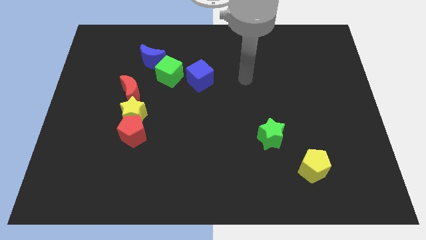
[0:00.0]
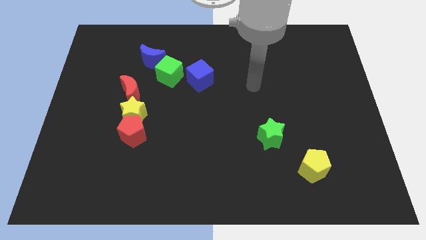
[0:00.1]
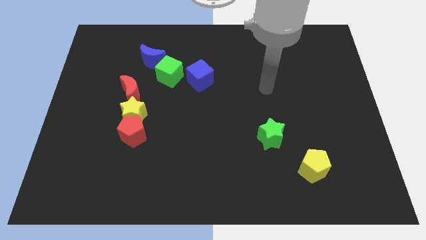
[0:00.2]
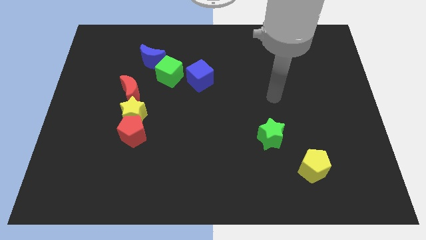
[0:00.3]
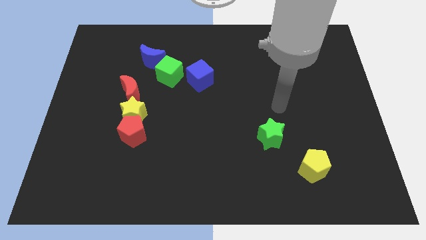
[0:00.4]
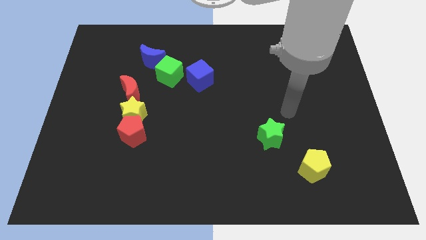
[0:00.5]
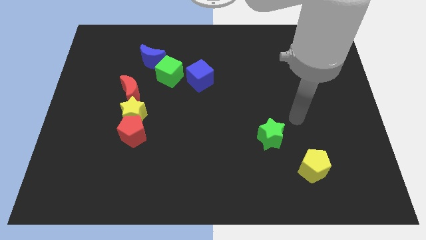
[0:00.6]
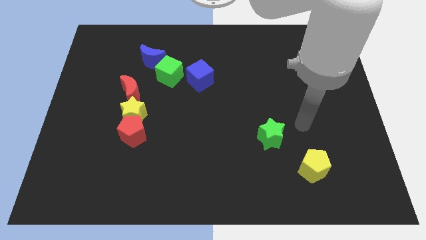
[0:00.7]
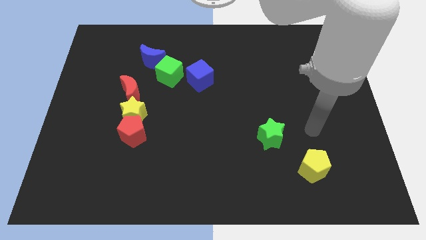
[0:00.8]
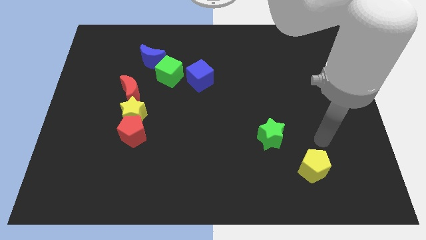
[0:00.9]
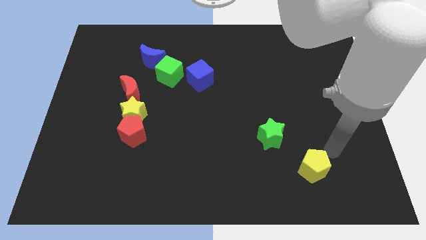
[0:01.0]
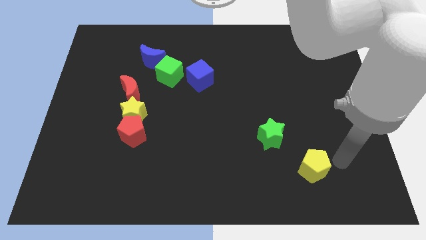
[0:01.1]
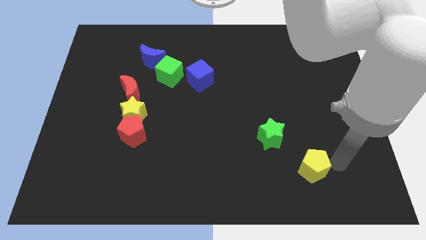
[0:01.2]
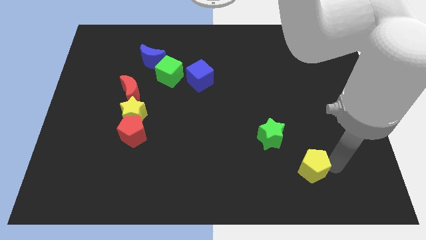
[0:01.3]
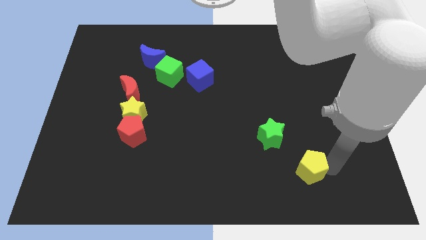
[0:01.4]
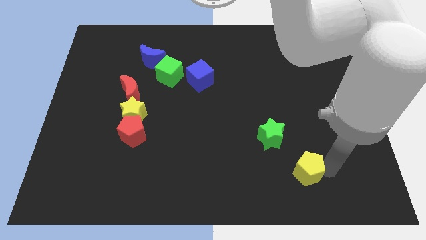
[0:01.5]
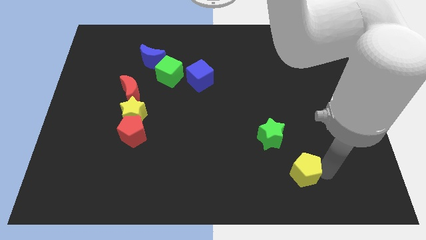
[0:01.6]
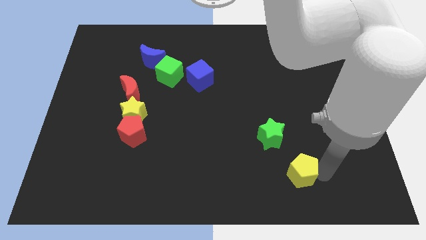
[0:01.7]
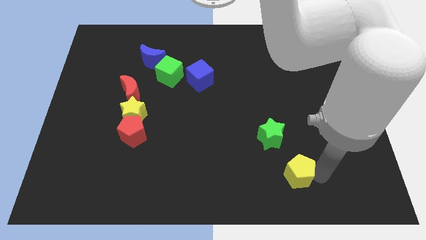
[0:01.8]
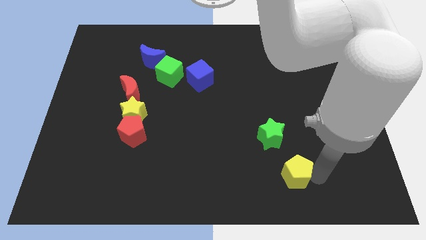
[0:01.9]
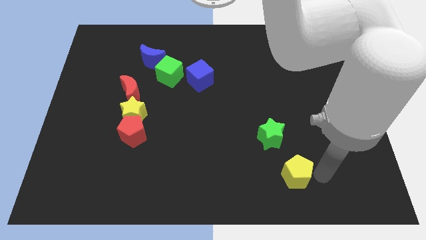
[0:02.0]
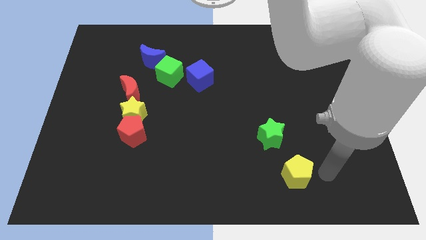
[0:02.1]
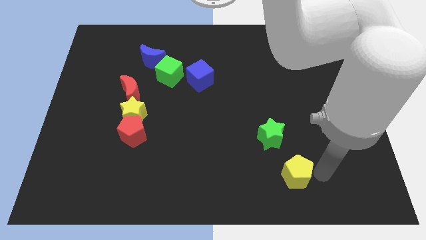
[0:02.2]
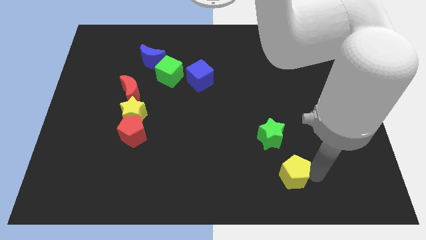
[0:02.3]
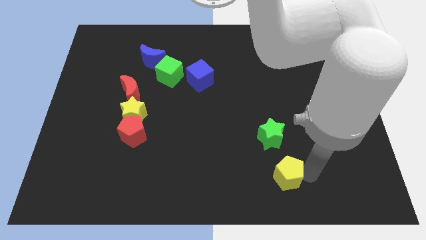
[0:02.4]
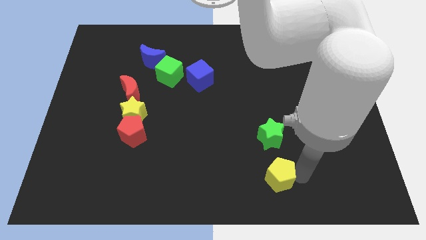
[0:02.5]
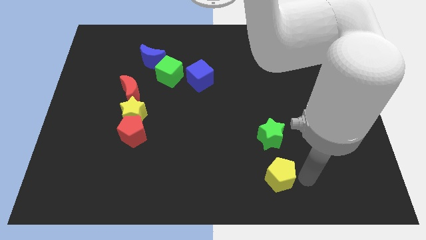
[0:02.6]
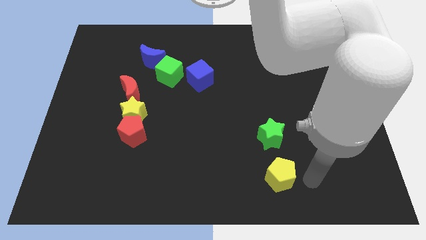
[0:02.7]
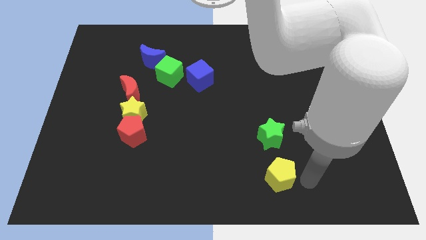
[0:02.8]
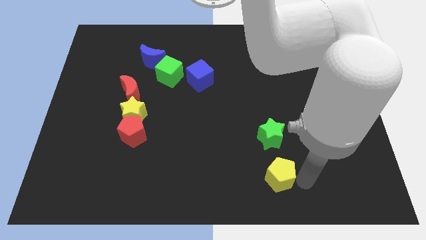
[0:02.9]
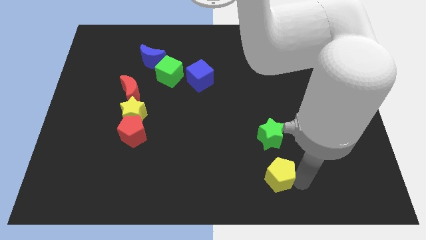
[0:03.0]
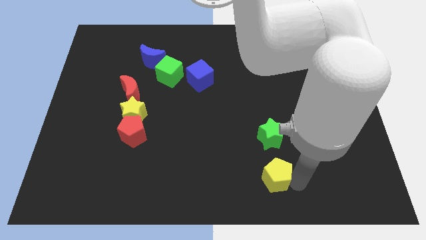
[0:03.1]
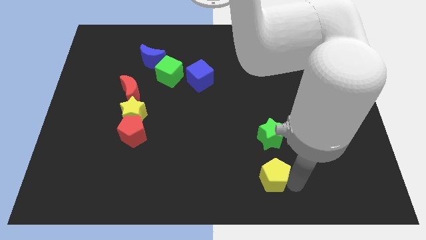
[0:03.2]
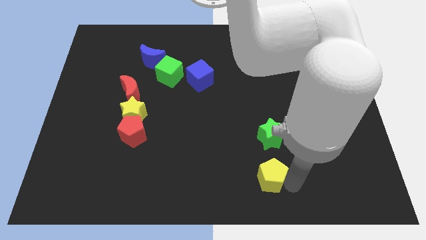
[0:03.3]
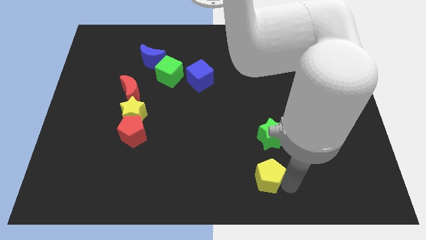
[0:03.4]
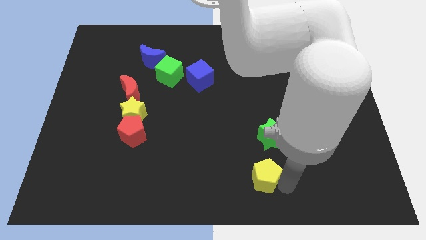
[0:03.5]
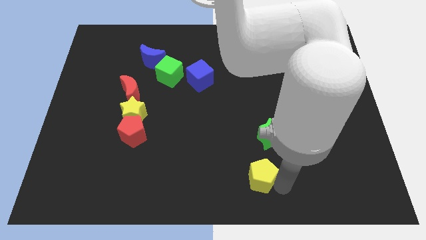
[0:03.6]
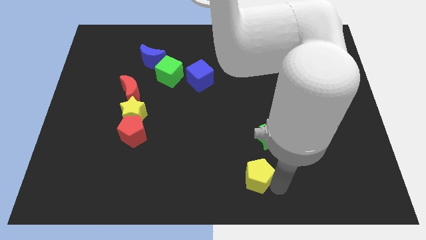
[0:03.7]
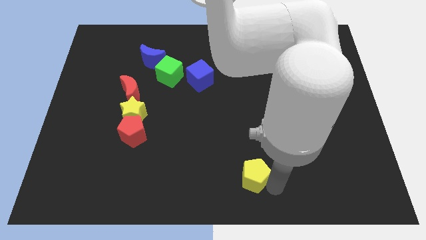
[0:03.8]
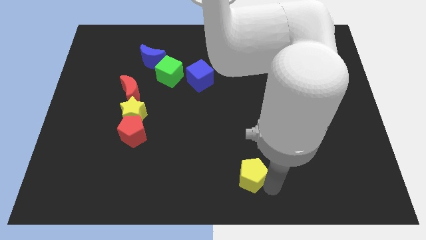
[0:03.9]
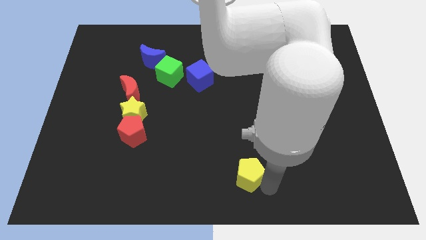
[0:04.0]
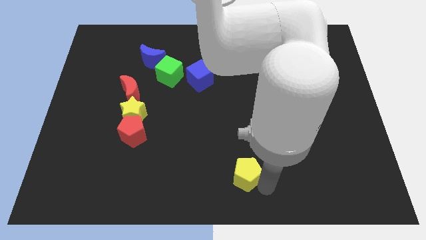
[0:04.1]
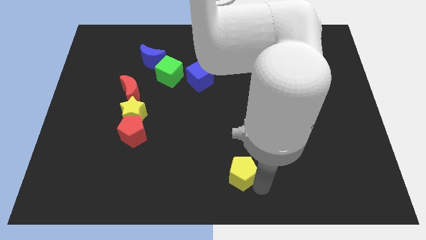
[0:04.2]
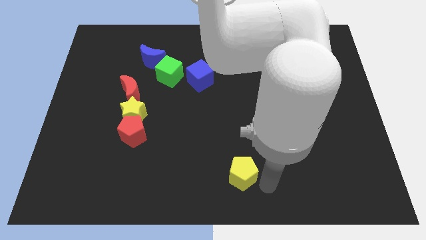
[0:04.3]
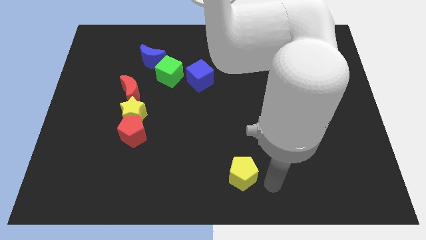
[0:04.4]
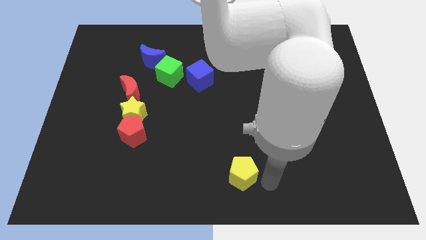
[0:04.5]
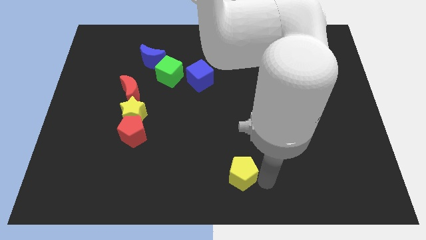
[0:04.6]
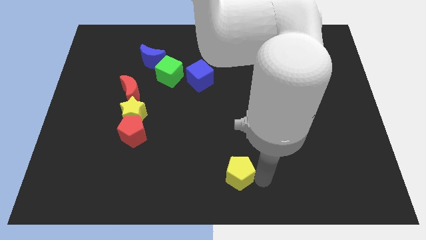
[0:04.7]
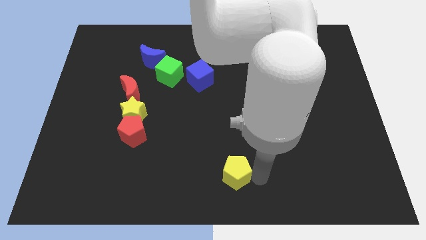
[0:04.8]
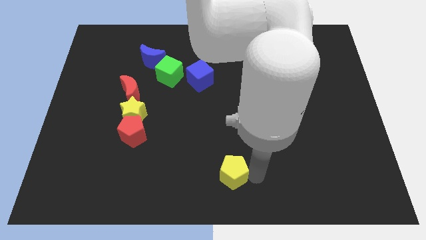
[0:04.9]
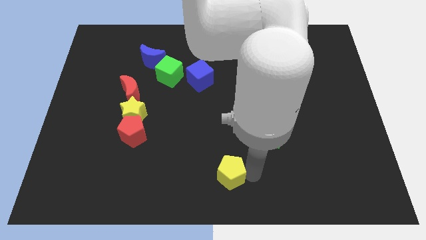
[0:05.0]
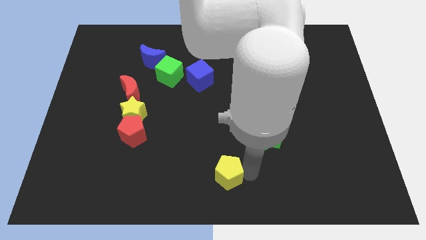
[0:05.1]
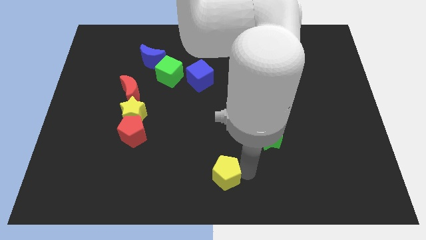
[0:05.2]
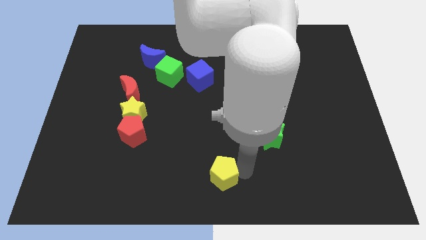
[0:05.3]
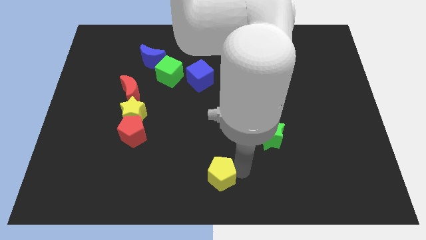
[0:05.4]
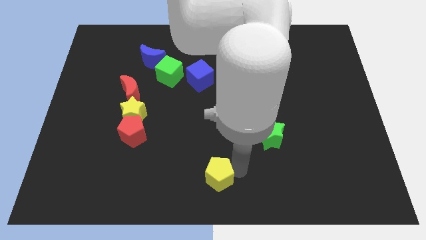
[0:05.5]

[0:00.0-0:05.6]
push the yellow pentagon to the left

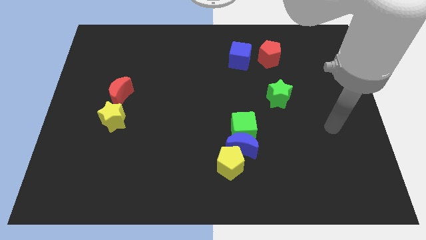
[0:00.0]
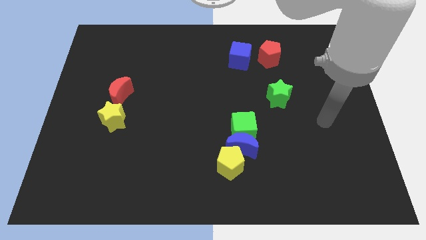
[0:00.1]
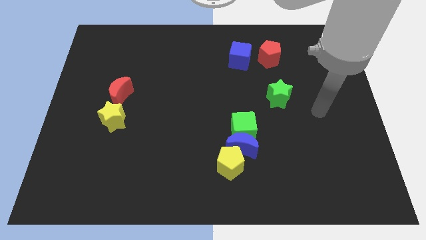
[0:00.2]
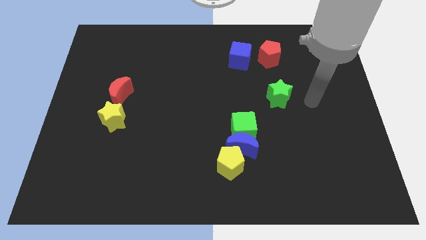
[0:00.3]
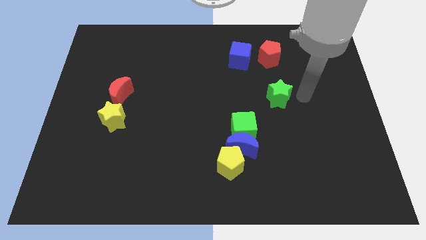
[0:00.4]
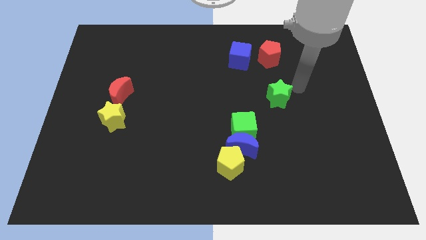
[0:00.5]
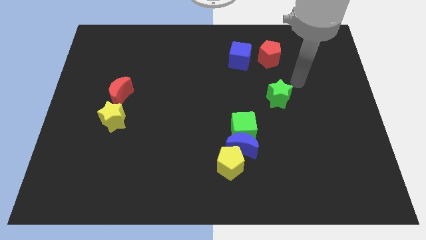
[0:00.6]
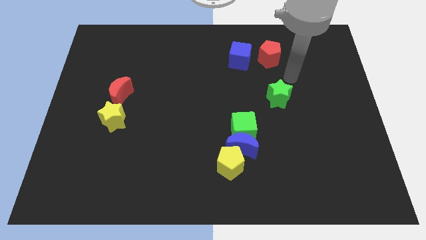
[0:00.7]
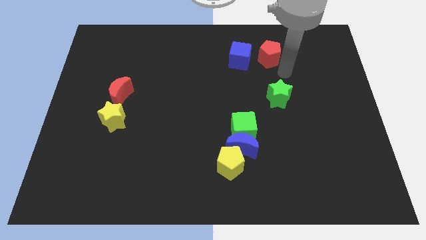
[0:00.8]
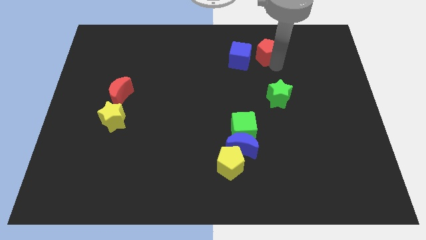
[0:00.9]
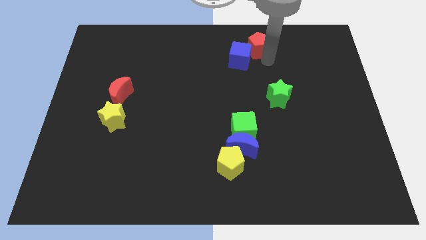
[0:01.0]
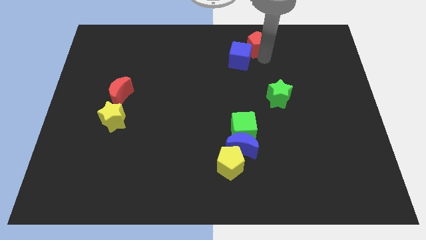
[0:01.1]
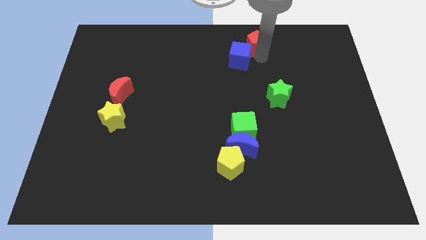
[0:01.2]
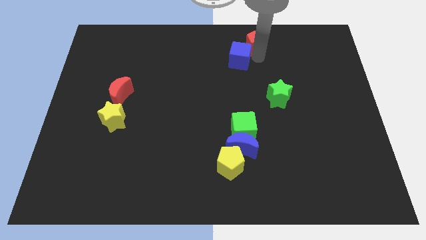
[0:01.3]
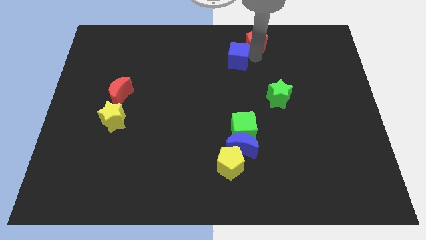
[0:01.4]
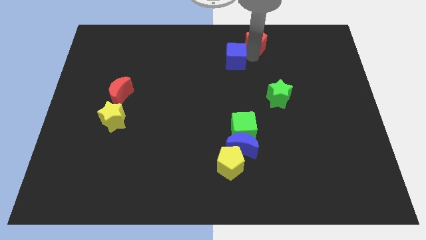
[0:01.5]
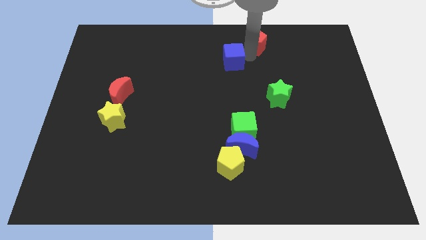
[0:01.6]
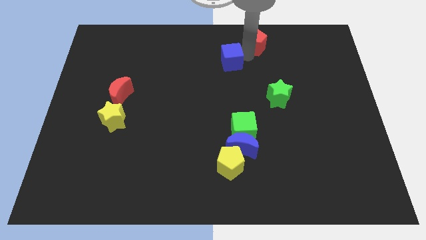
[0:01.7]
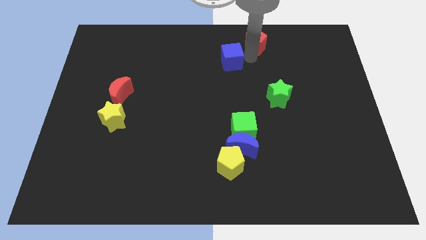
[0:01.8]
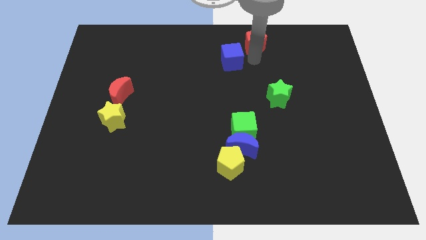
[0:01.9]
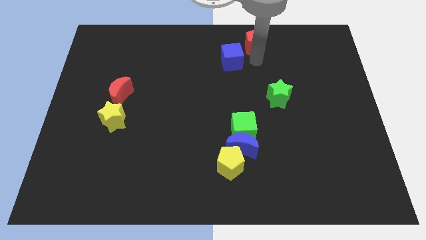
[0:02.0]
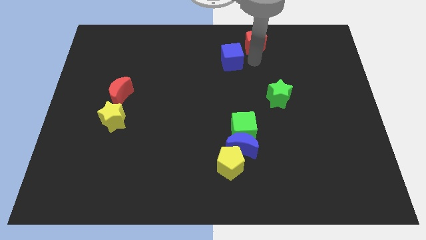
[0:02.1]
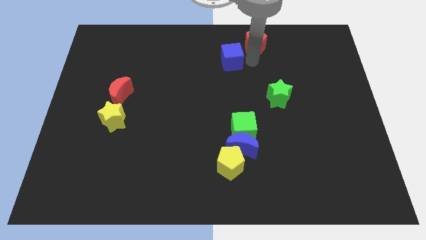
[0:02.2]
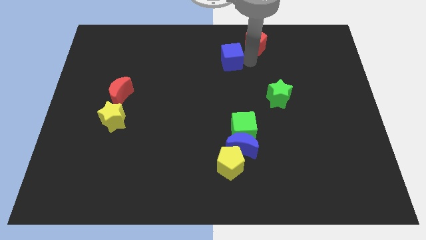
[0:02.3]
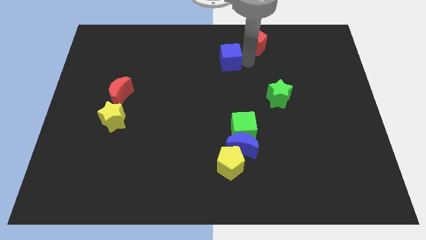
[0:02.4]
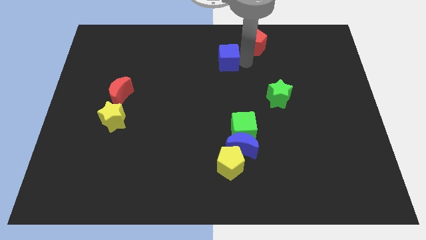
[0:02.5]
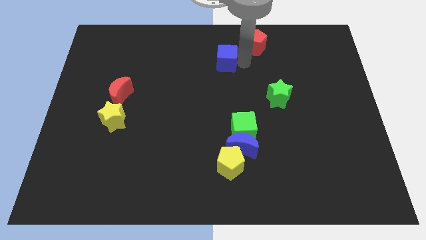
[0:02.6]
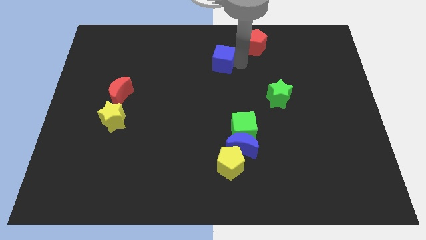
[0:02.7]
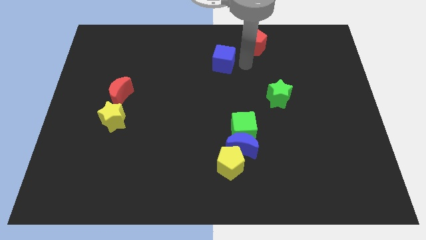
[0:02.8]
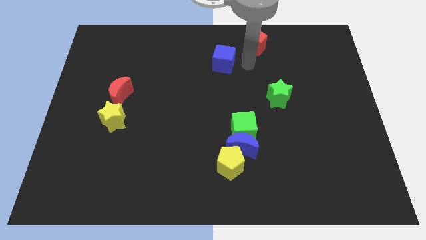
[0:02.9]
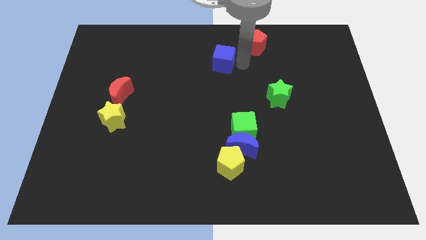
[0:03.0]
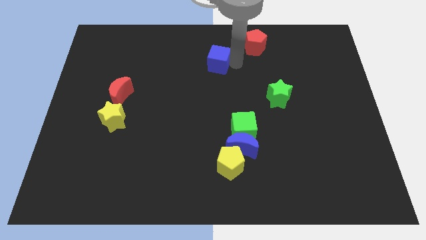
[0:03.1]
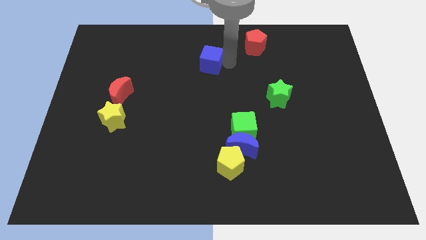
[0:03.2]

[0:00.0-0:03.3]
slightly move the blue cube to the left
